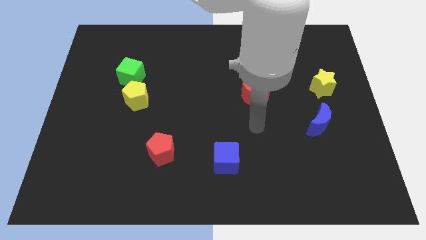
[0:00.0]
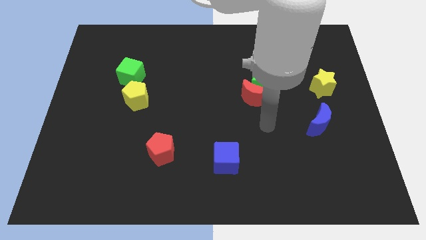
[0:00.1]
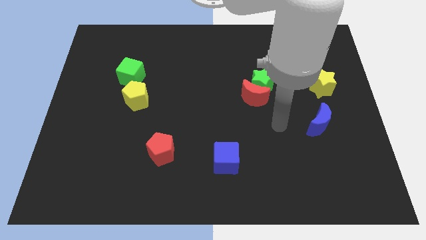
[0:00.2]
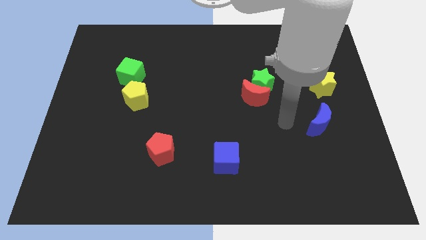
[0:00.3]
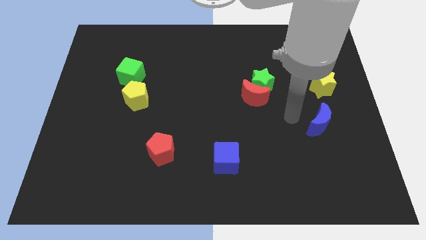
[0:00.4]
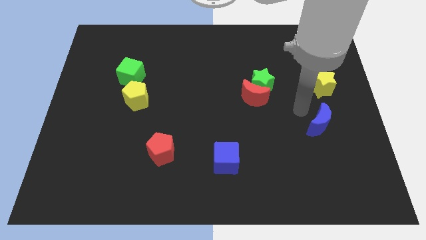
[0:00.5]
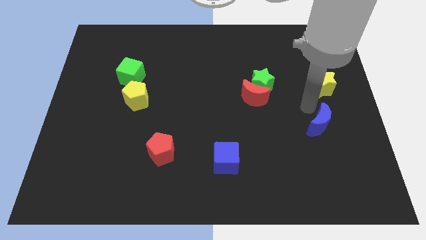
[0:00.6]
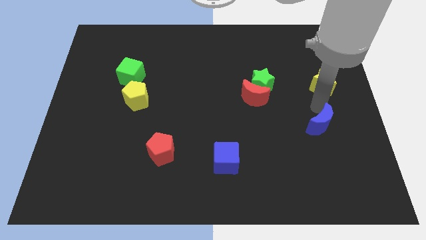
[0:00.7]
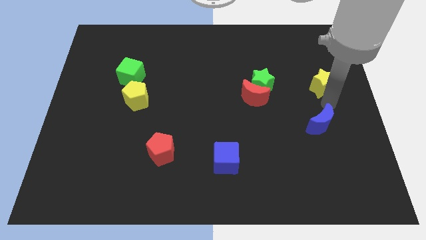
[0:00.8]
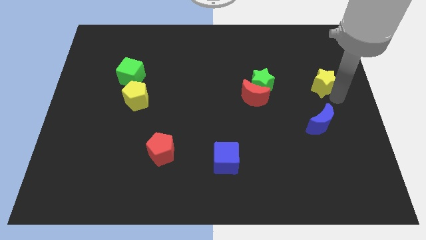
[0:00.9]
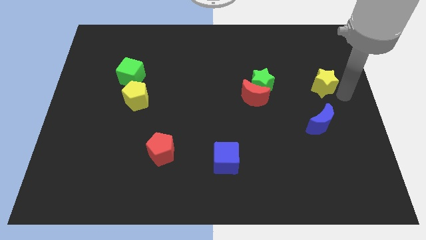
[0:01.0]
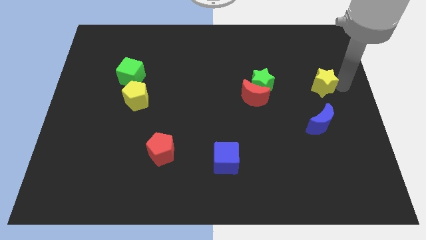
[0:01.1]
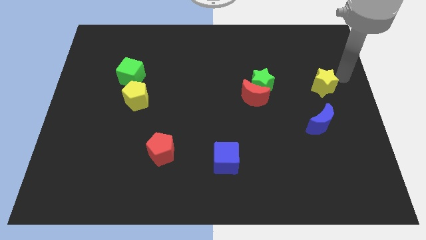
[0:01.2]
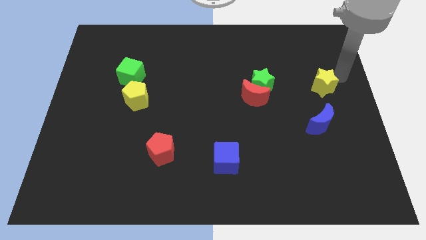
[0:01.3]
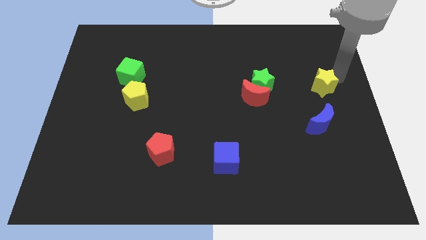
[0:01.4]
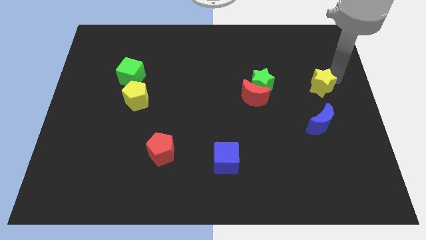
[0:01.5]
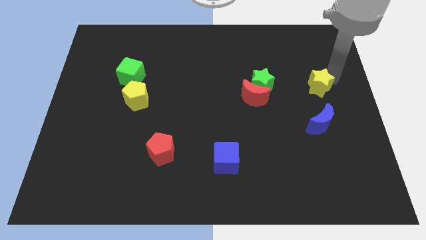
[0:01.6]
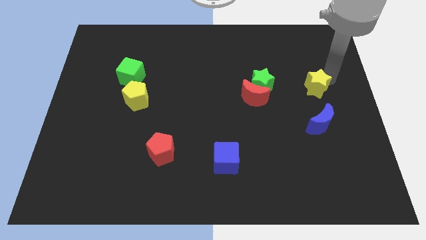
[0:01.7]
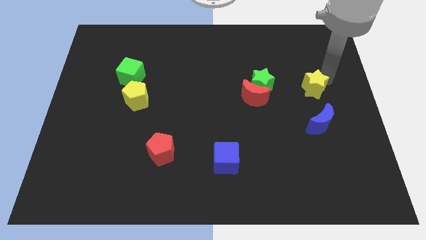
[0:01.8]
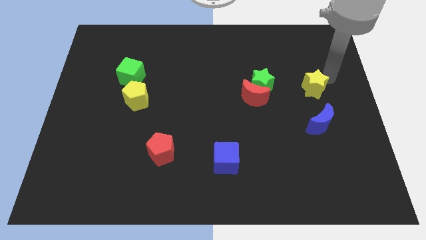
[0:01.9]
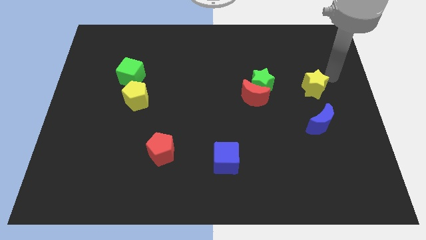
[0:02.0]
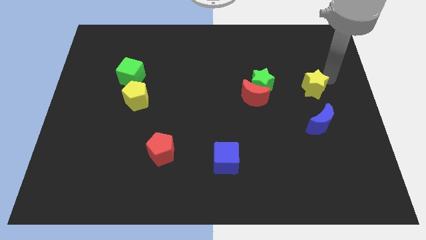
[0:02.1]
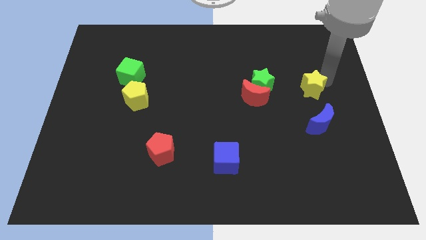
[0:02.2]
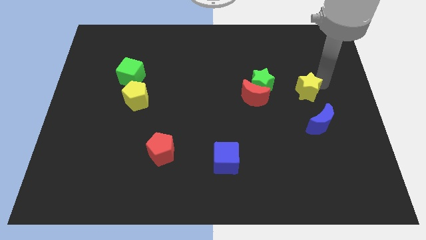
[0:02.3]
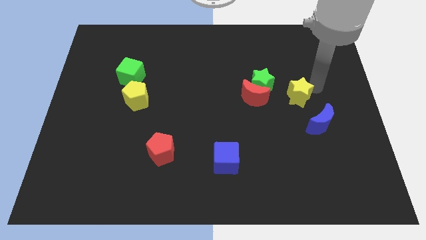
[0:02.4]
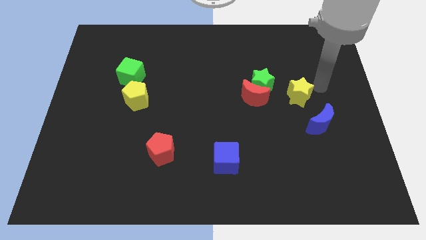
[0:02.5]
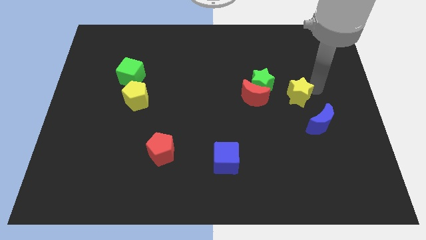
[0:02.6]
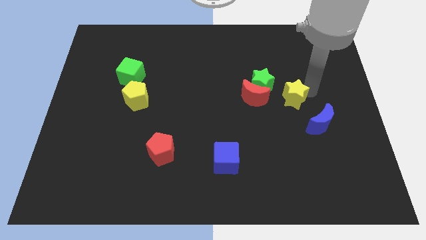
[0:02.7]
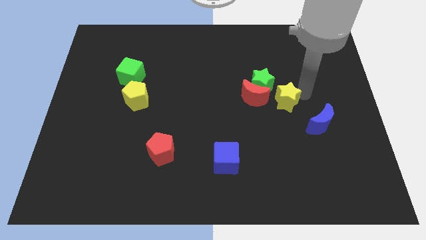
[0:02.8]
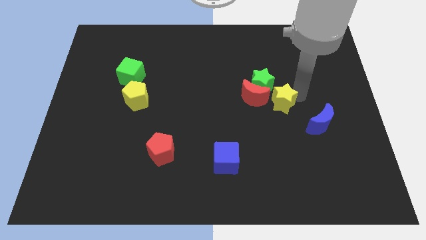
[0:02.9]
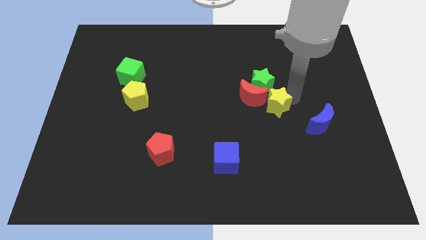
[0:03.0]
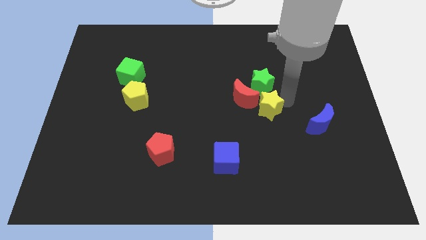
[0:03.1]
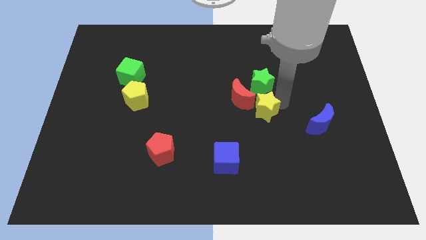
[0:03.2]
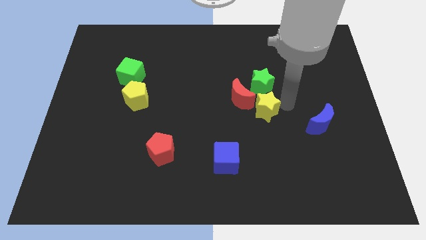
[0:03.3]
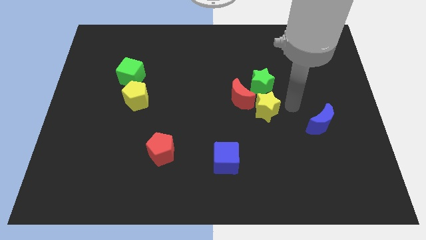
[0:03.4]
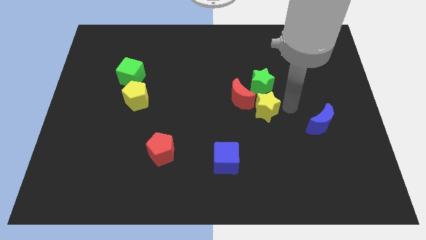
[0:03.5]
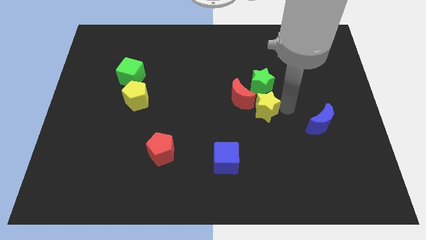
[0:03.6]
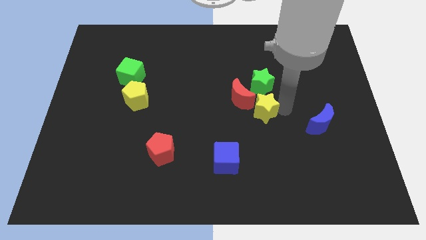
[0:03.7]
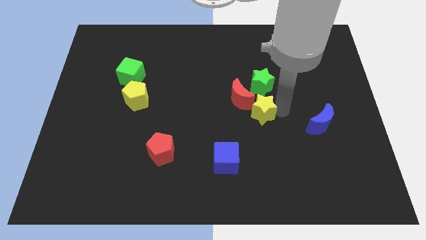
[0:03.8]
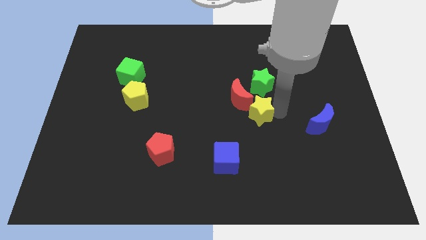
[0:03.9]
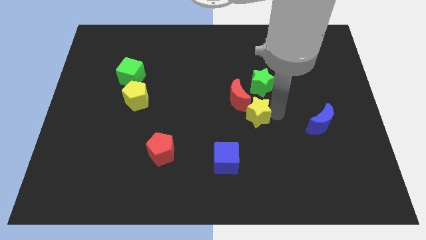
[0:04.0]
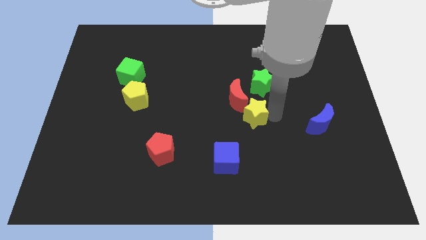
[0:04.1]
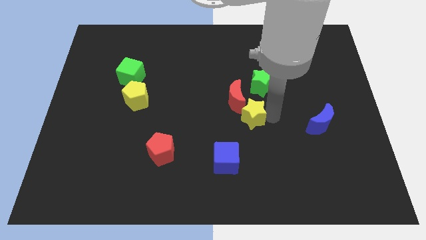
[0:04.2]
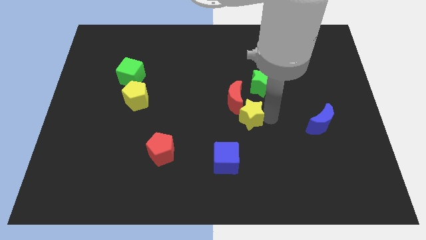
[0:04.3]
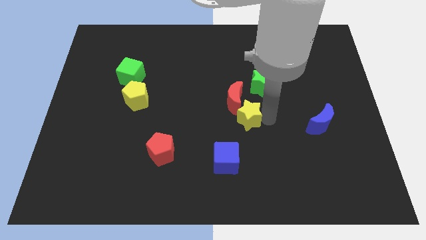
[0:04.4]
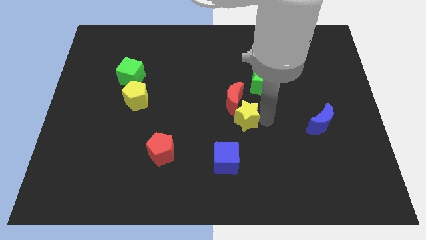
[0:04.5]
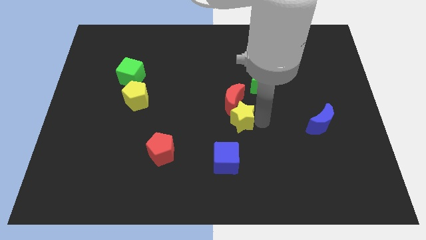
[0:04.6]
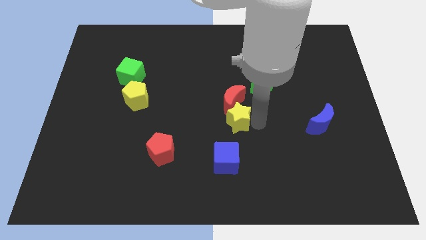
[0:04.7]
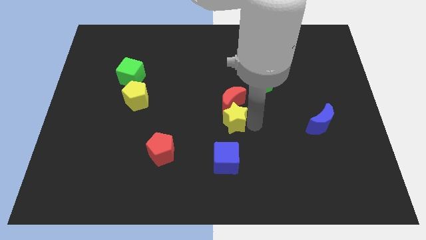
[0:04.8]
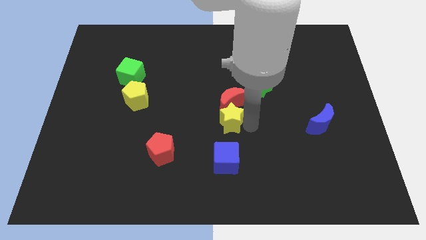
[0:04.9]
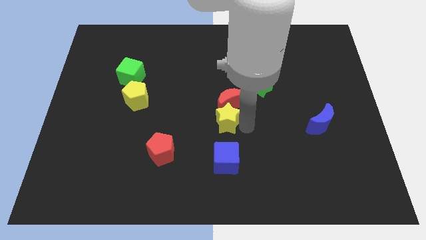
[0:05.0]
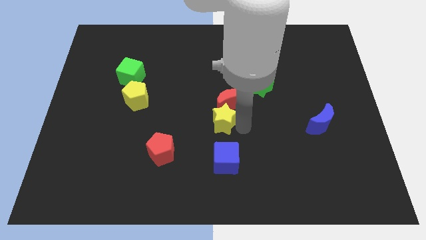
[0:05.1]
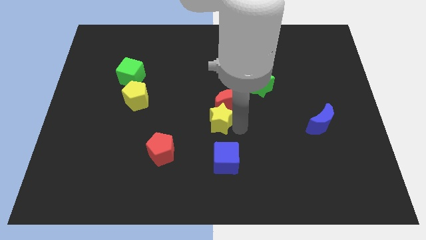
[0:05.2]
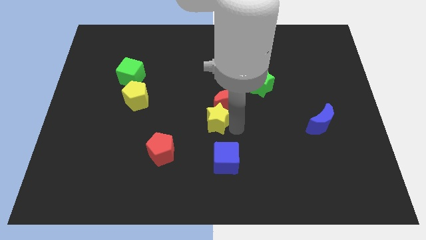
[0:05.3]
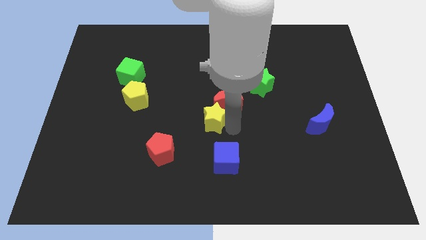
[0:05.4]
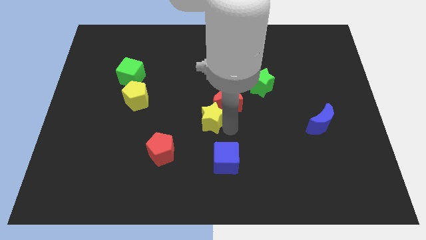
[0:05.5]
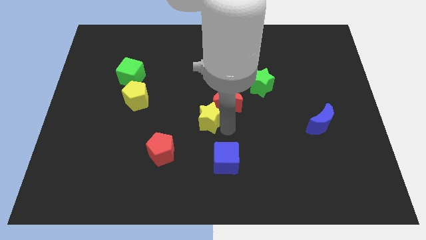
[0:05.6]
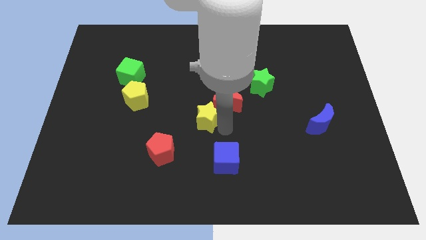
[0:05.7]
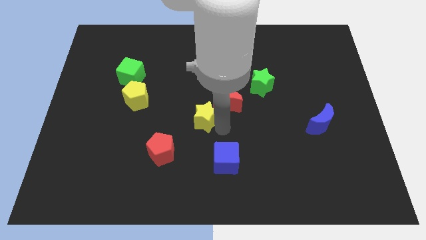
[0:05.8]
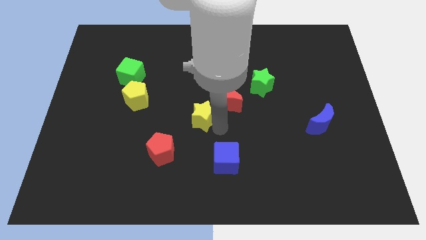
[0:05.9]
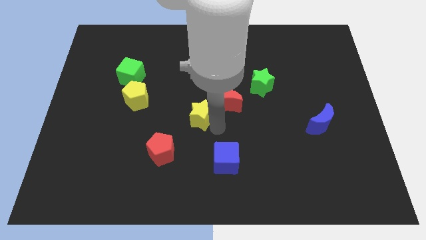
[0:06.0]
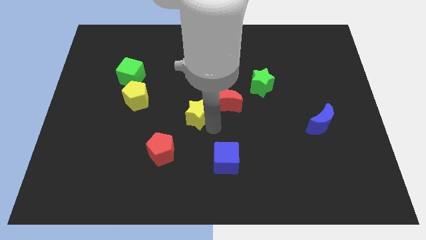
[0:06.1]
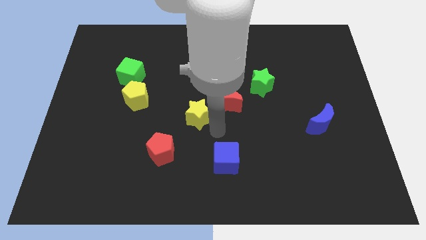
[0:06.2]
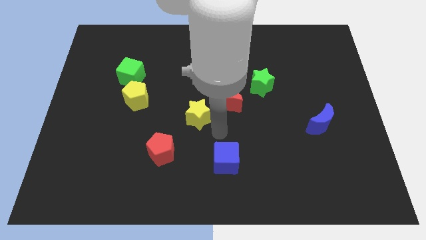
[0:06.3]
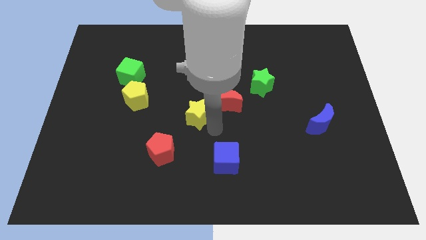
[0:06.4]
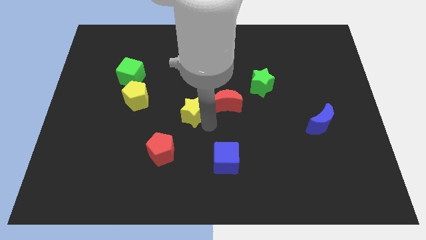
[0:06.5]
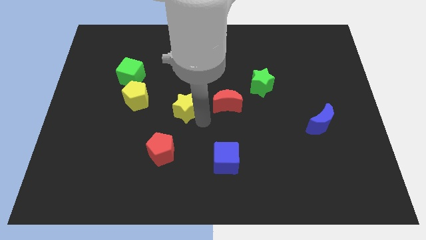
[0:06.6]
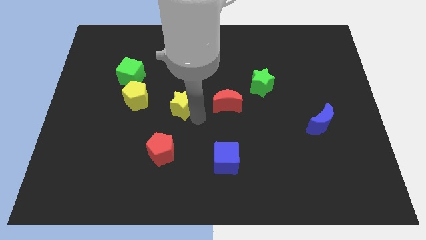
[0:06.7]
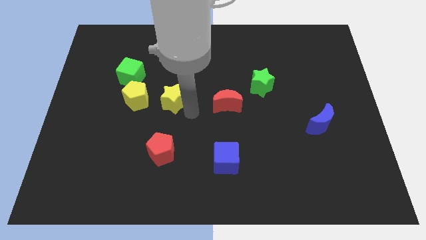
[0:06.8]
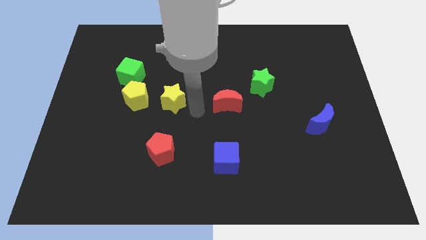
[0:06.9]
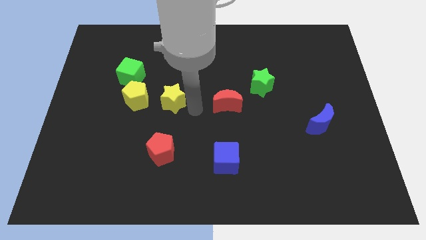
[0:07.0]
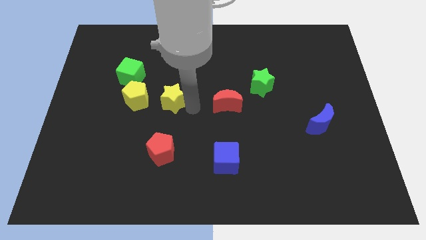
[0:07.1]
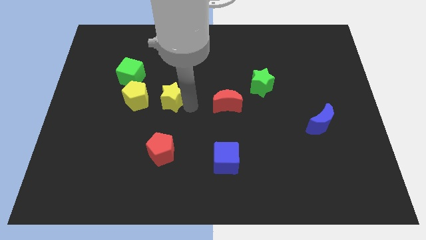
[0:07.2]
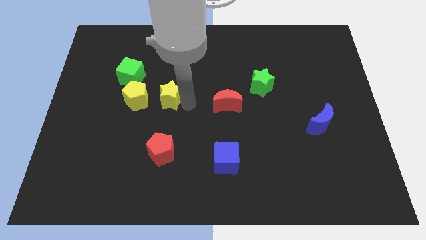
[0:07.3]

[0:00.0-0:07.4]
slide the yellow star to the bottom right side of the green cube
